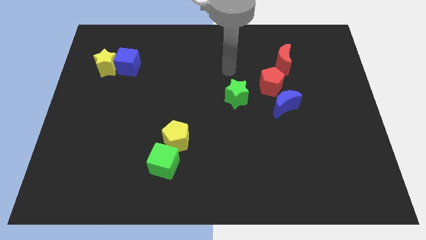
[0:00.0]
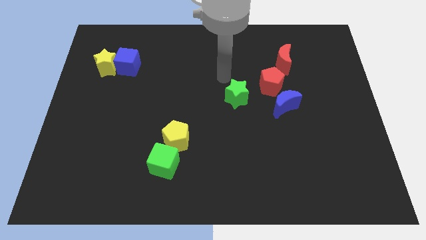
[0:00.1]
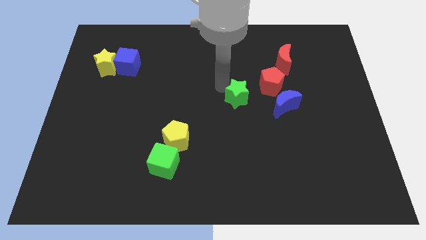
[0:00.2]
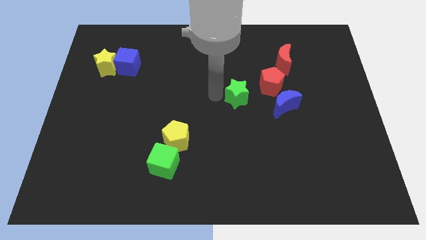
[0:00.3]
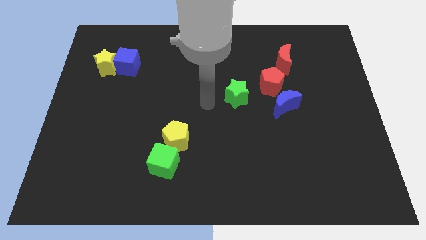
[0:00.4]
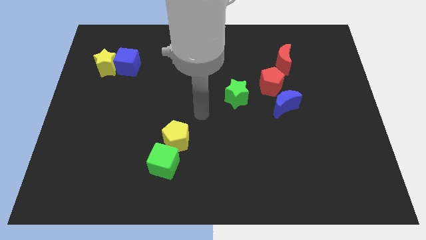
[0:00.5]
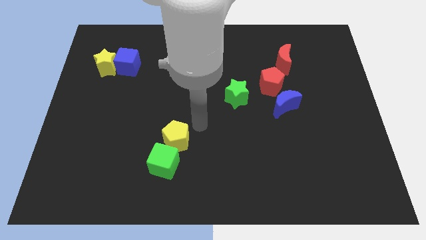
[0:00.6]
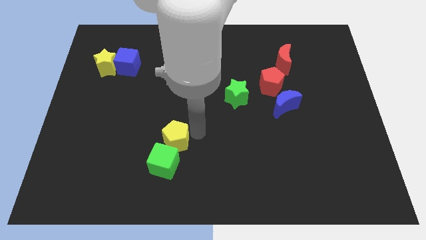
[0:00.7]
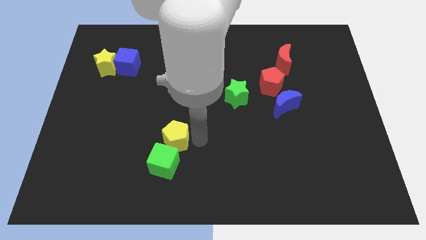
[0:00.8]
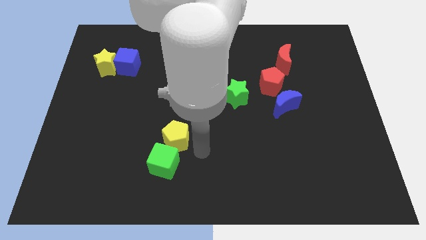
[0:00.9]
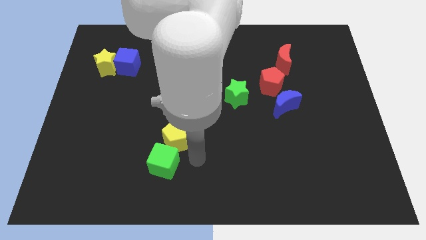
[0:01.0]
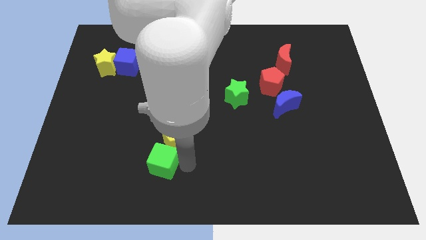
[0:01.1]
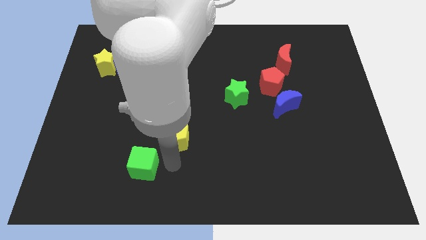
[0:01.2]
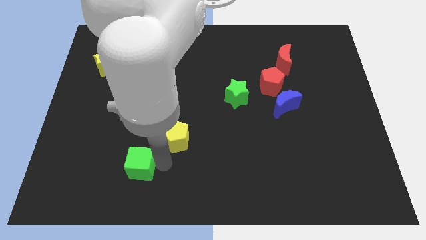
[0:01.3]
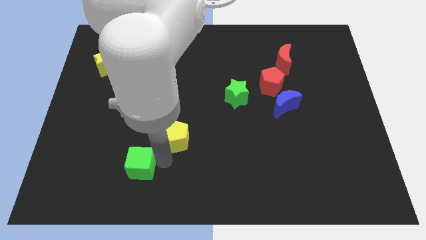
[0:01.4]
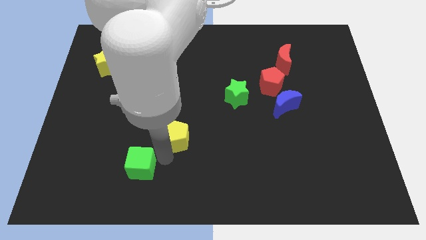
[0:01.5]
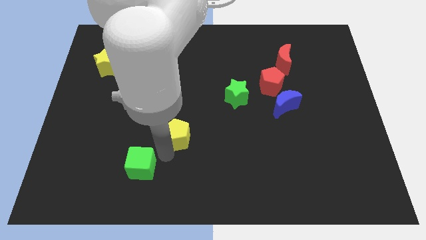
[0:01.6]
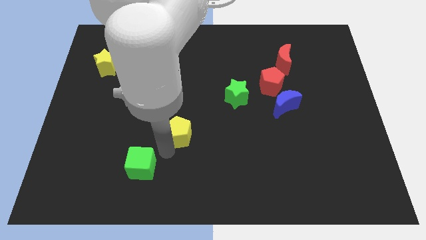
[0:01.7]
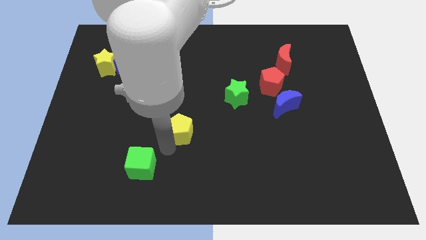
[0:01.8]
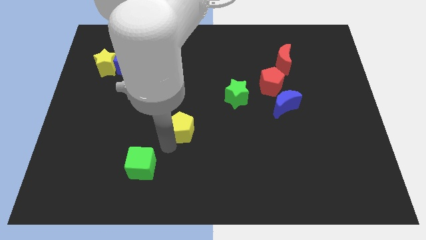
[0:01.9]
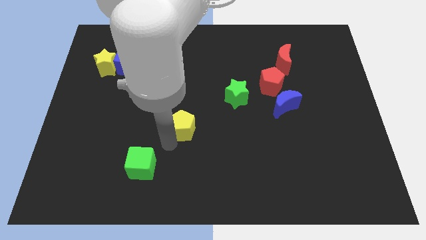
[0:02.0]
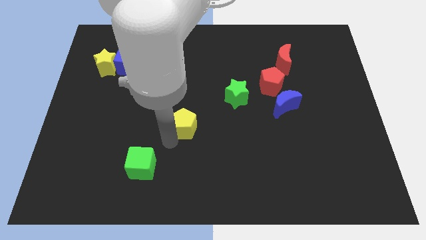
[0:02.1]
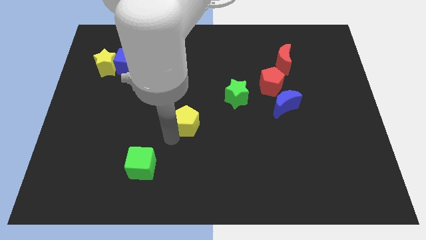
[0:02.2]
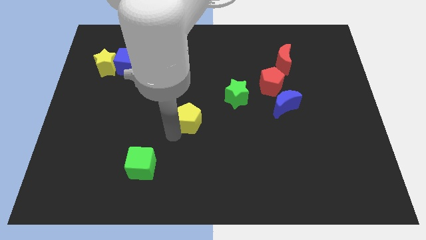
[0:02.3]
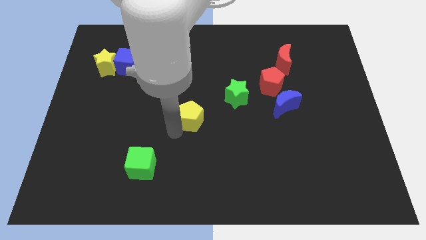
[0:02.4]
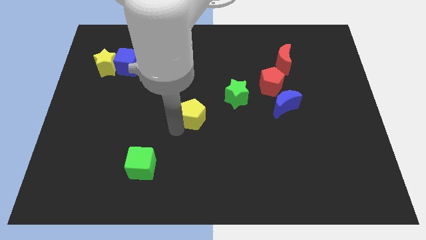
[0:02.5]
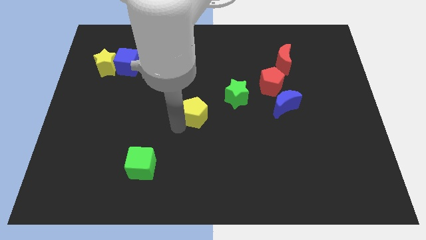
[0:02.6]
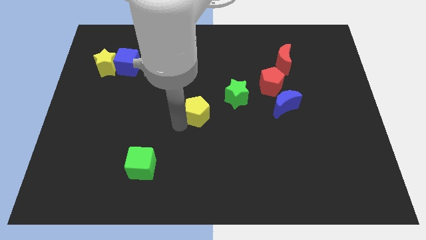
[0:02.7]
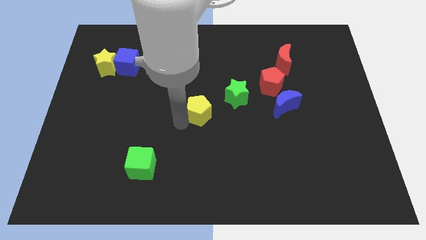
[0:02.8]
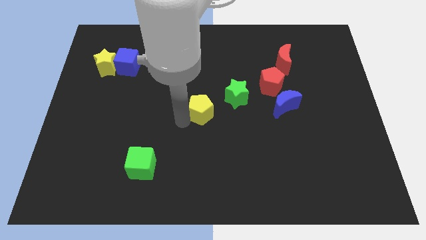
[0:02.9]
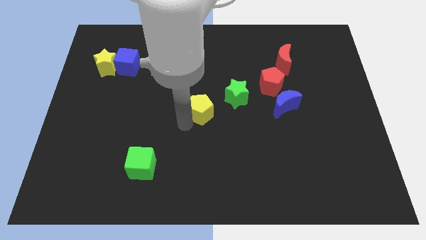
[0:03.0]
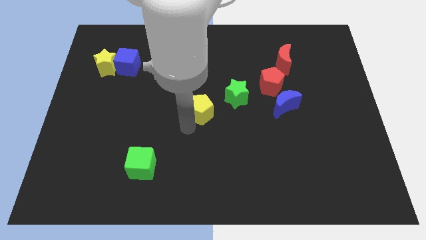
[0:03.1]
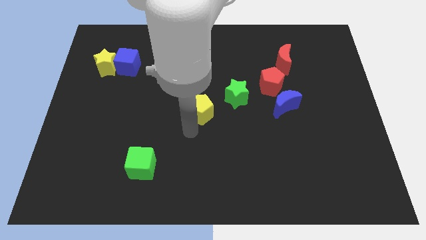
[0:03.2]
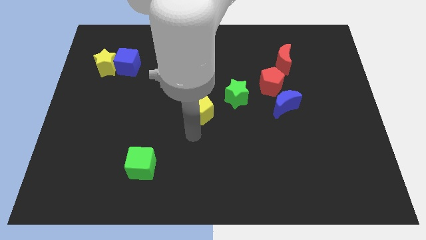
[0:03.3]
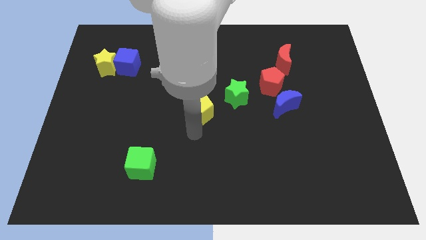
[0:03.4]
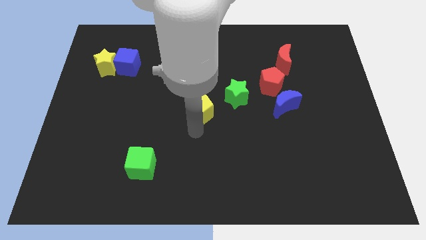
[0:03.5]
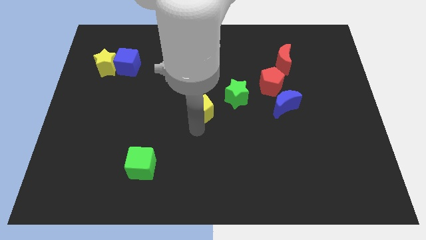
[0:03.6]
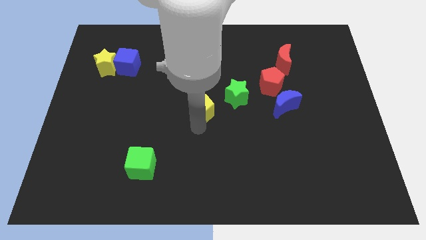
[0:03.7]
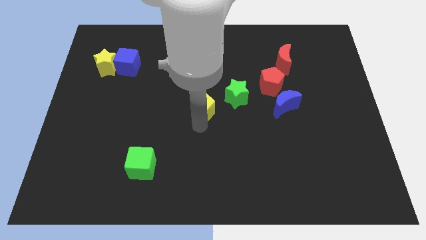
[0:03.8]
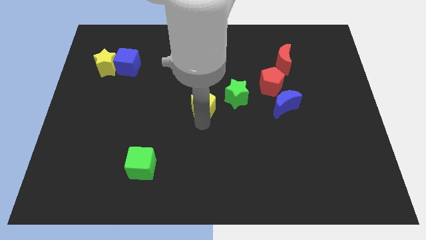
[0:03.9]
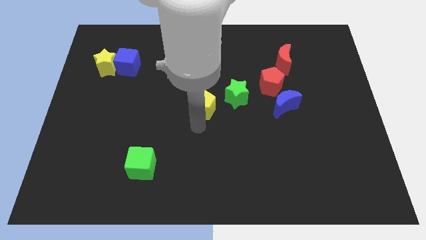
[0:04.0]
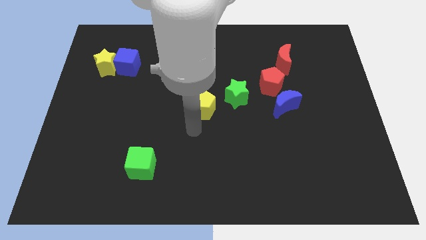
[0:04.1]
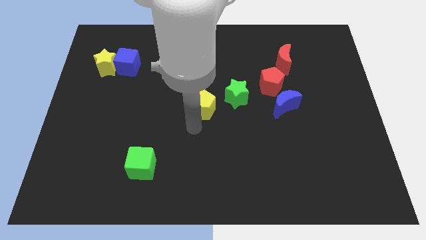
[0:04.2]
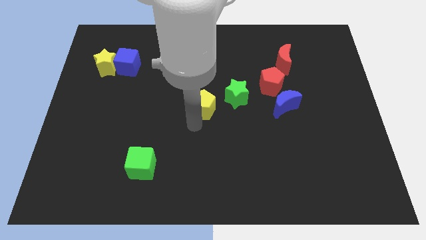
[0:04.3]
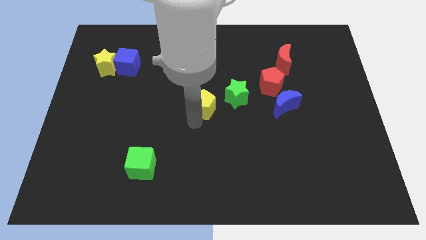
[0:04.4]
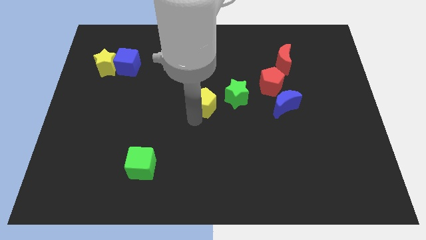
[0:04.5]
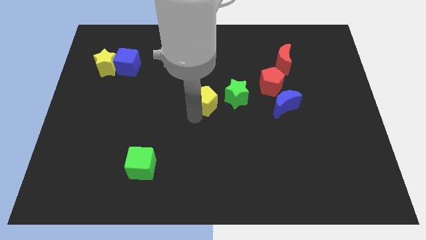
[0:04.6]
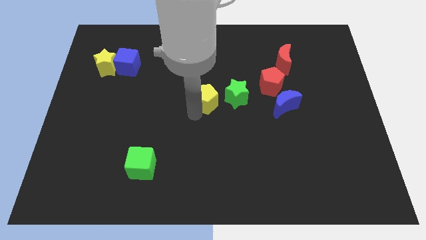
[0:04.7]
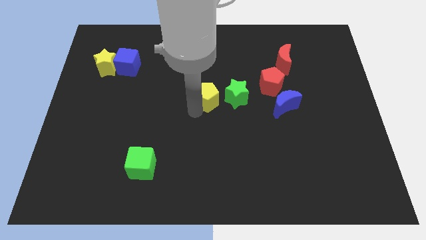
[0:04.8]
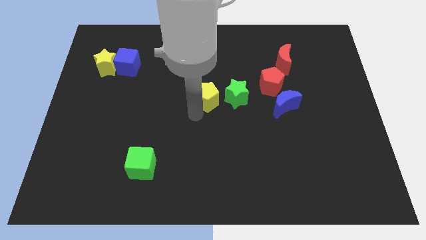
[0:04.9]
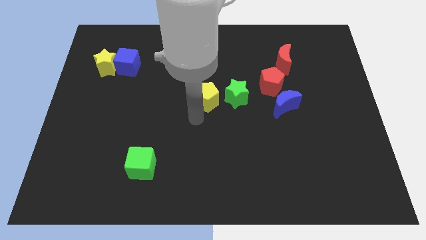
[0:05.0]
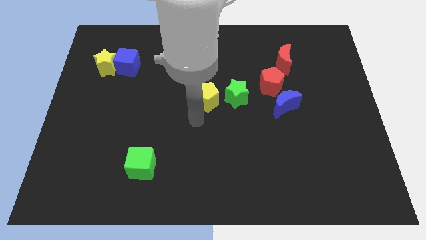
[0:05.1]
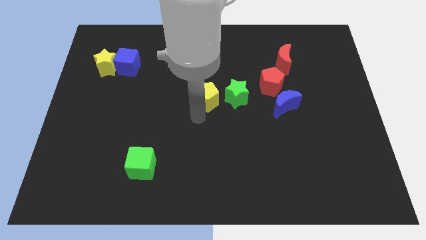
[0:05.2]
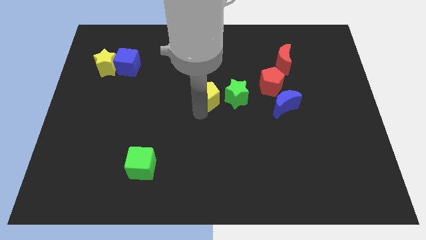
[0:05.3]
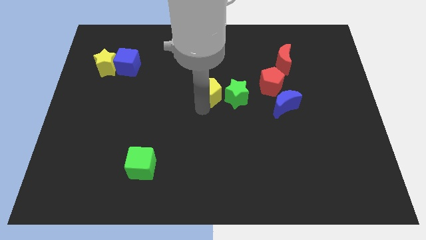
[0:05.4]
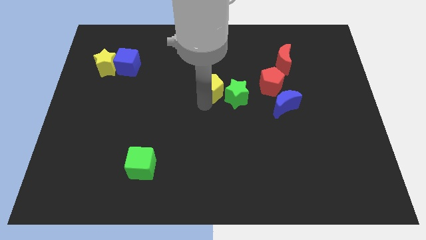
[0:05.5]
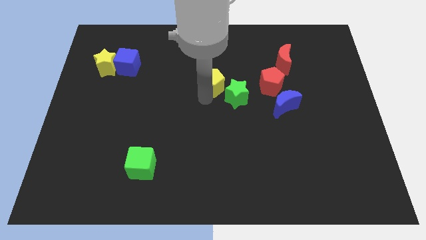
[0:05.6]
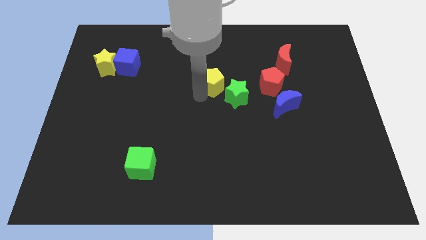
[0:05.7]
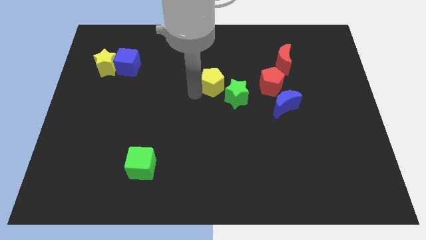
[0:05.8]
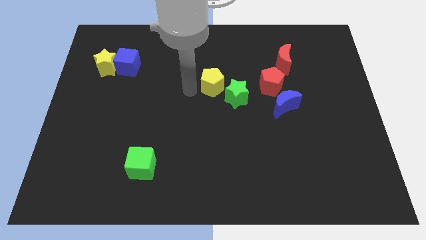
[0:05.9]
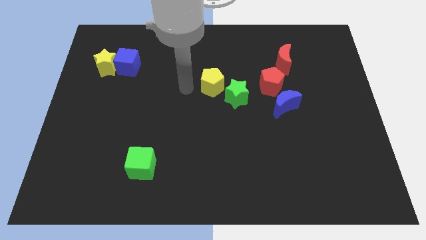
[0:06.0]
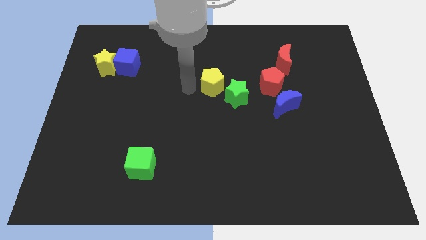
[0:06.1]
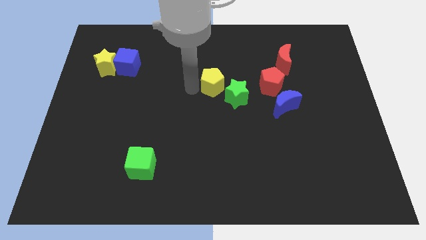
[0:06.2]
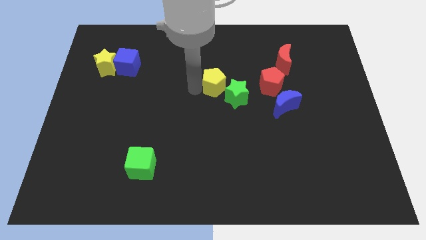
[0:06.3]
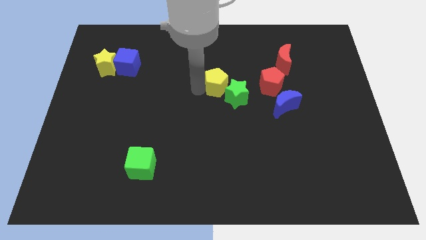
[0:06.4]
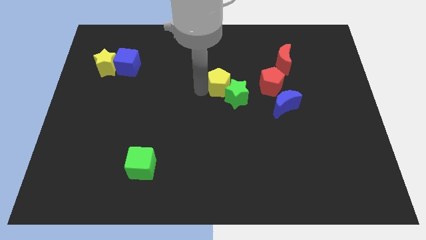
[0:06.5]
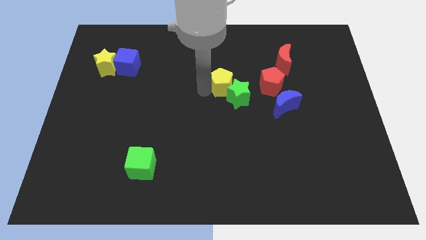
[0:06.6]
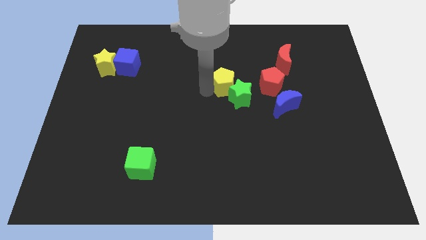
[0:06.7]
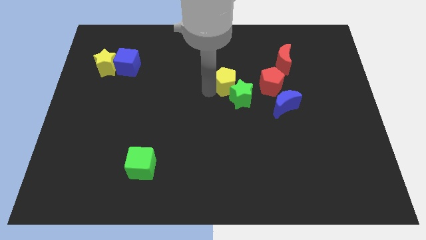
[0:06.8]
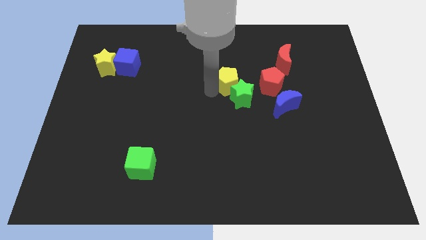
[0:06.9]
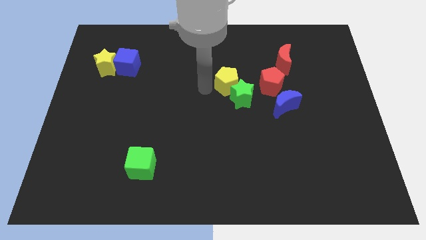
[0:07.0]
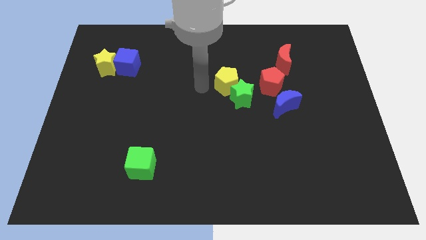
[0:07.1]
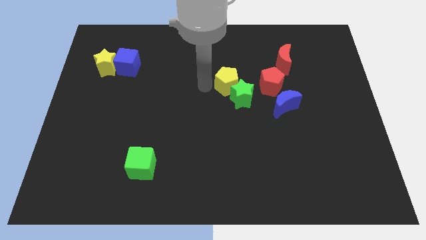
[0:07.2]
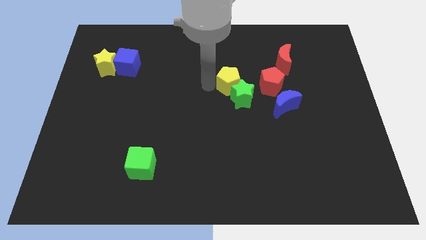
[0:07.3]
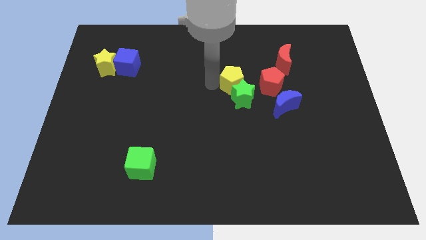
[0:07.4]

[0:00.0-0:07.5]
slide the yellow pentagon diagonally up and to the right of the green star
